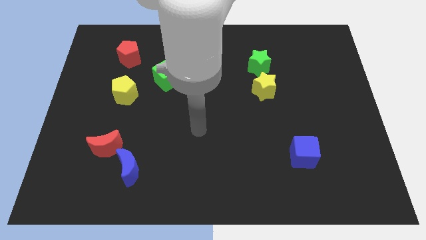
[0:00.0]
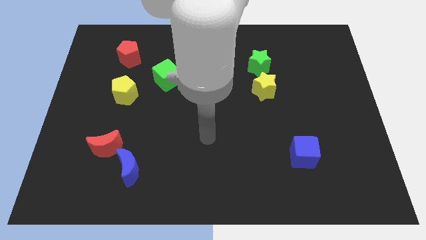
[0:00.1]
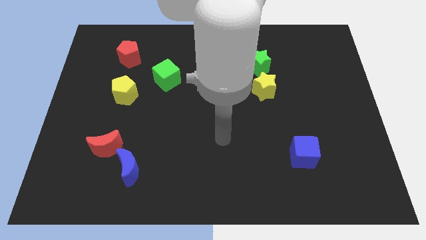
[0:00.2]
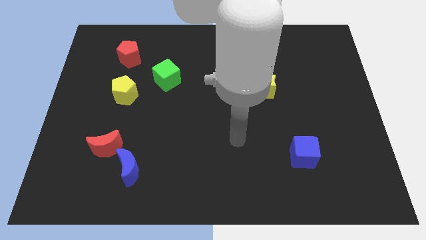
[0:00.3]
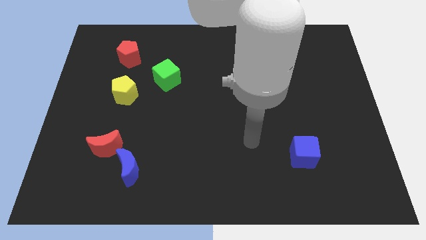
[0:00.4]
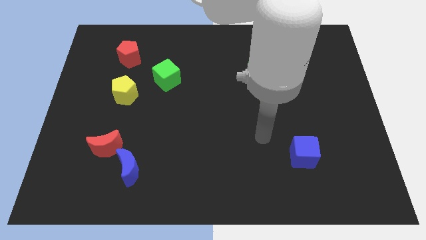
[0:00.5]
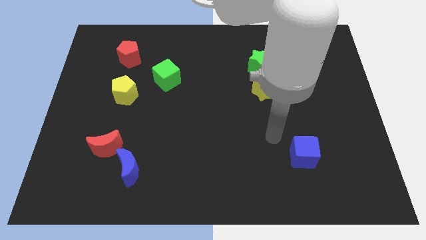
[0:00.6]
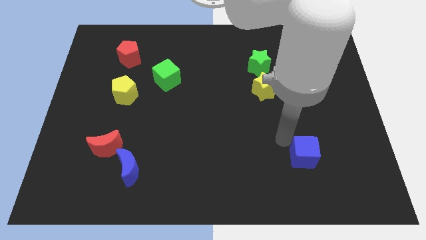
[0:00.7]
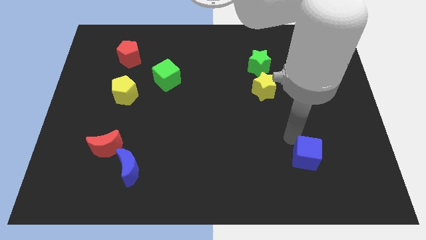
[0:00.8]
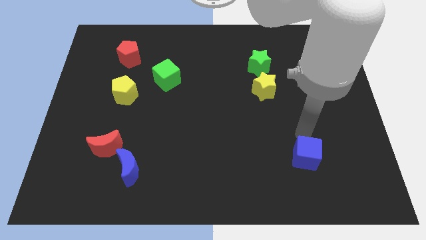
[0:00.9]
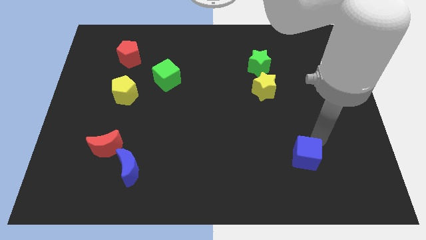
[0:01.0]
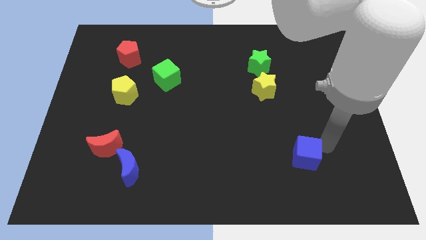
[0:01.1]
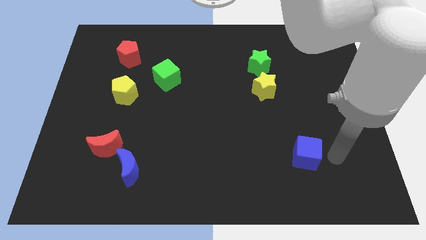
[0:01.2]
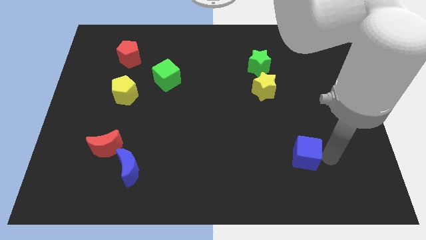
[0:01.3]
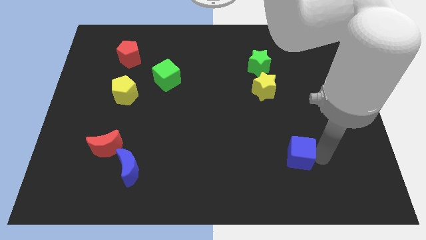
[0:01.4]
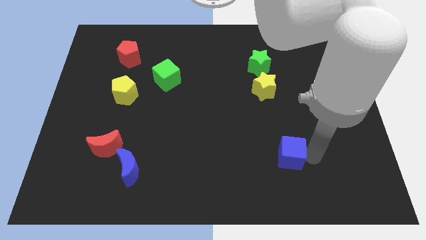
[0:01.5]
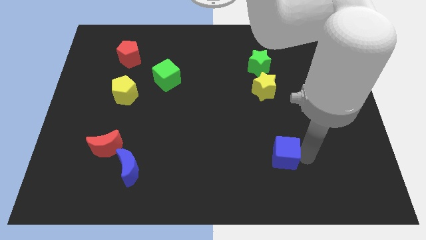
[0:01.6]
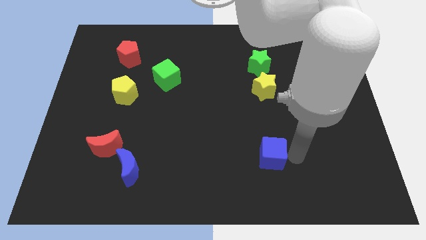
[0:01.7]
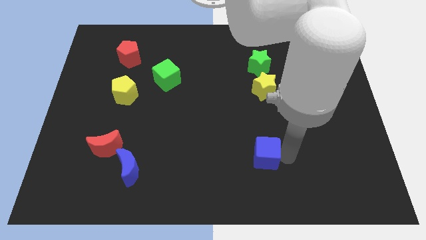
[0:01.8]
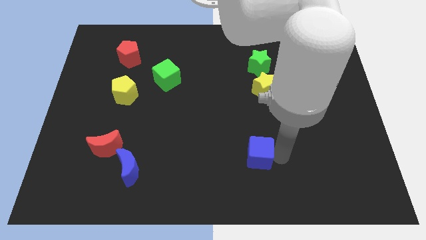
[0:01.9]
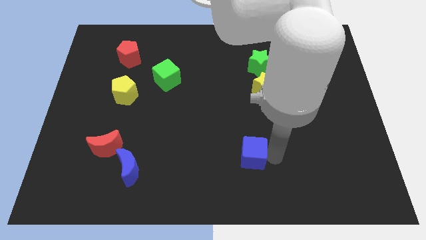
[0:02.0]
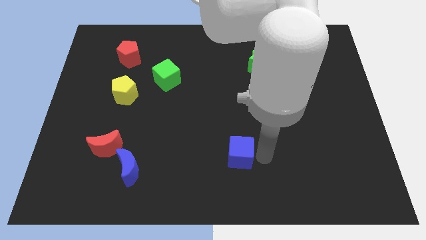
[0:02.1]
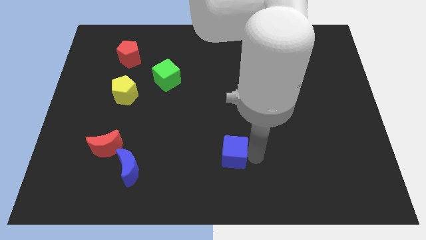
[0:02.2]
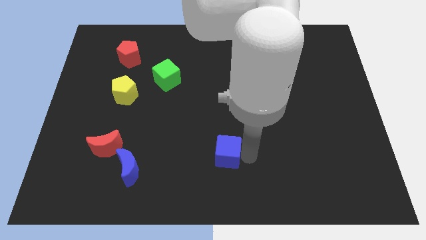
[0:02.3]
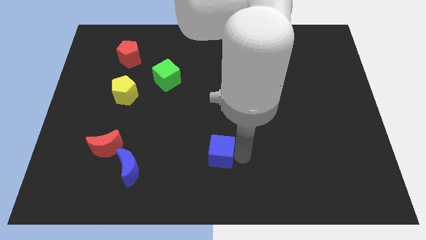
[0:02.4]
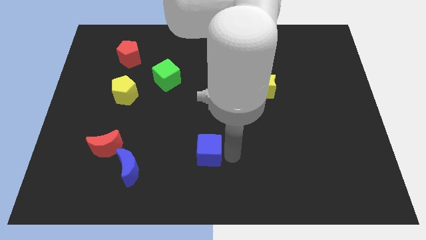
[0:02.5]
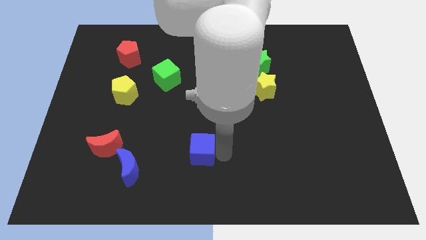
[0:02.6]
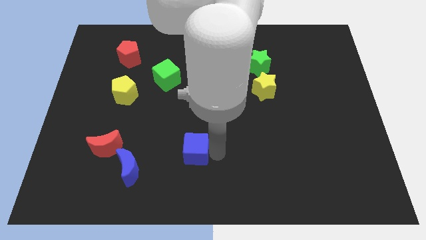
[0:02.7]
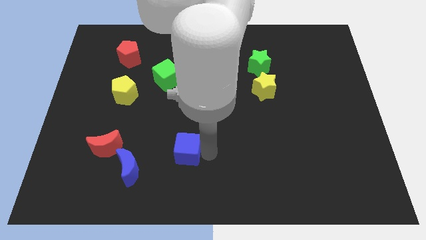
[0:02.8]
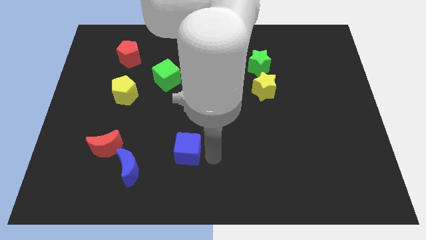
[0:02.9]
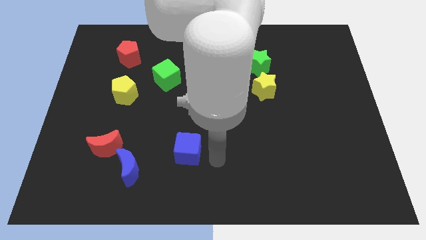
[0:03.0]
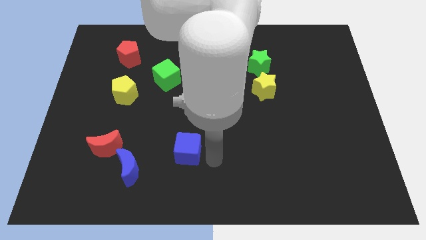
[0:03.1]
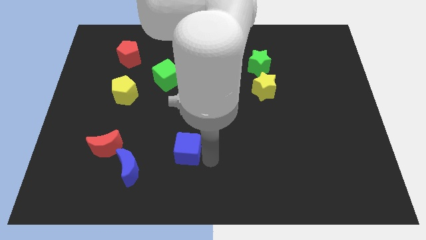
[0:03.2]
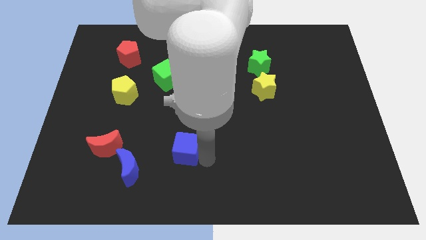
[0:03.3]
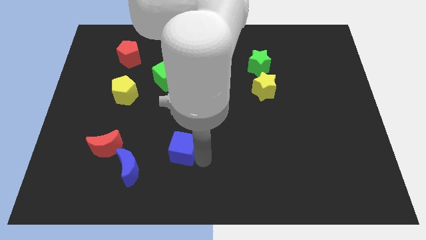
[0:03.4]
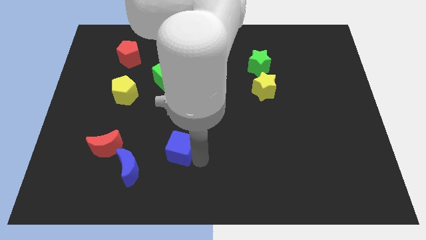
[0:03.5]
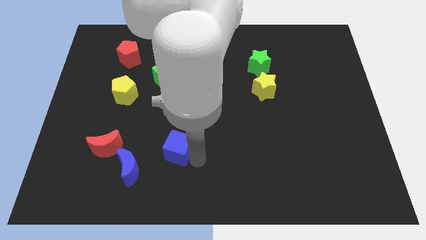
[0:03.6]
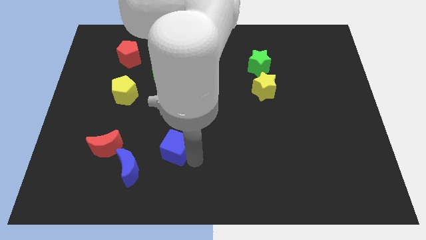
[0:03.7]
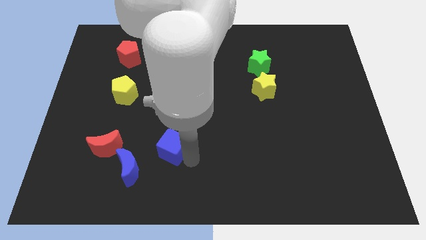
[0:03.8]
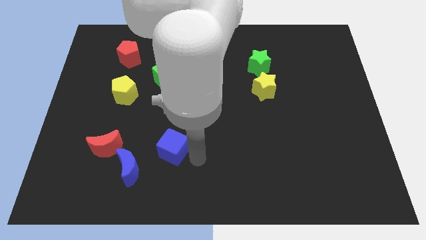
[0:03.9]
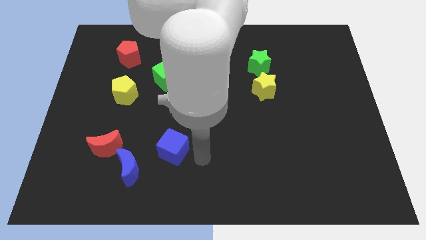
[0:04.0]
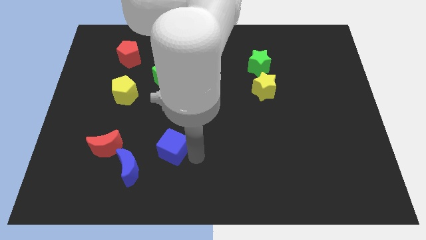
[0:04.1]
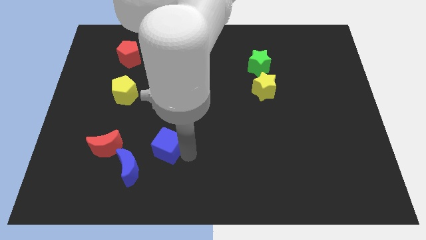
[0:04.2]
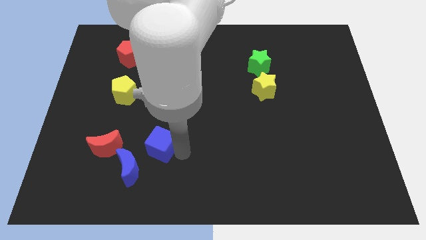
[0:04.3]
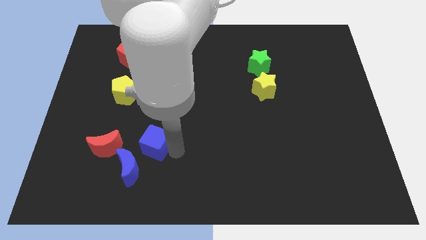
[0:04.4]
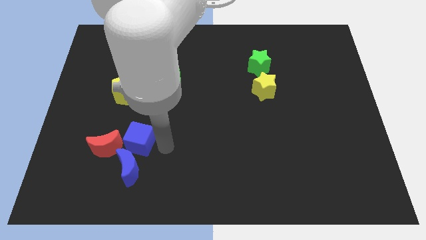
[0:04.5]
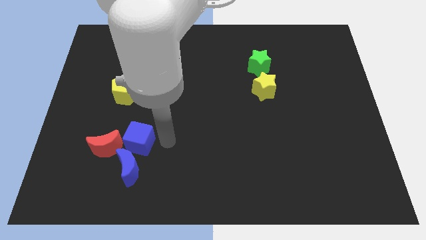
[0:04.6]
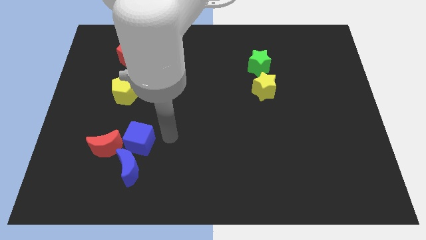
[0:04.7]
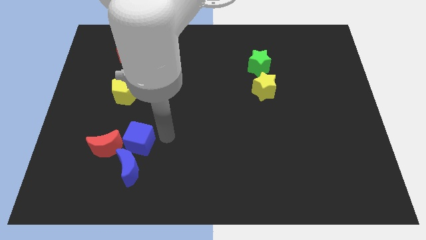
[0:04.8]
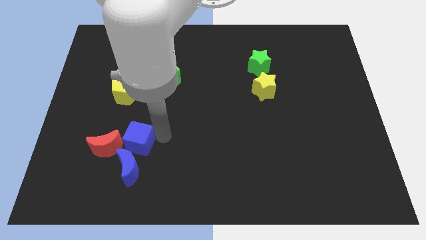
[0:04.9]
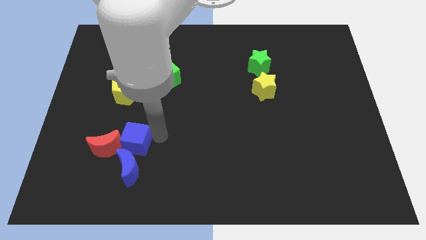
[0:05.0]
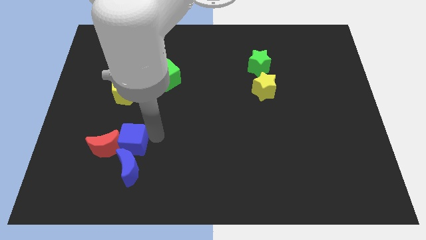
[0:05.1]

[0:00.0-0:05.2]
slide the blue cube close to the red moon

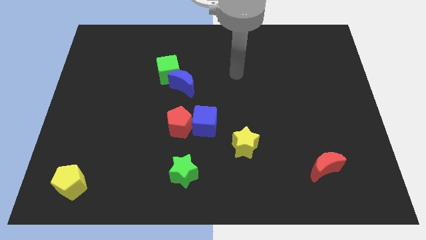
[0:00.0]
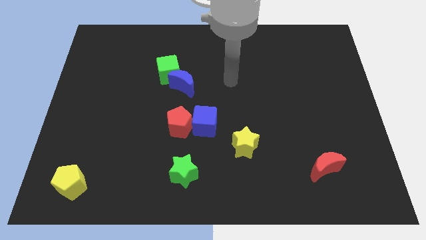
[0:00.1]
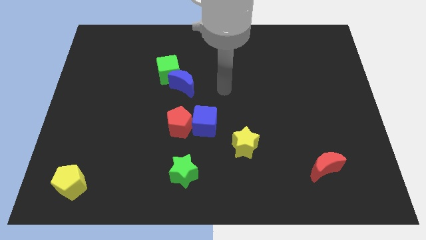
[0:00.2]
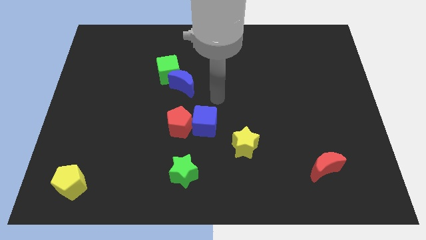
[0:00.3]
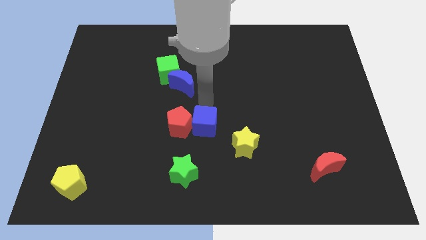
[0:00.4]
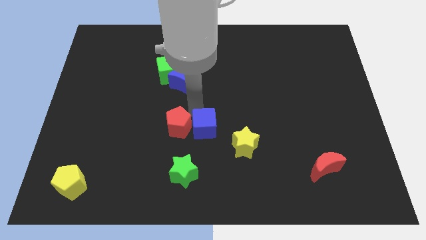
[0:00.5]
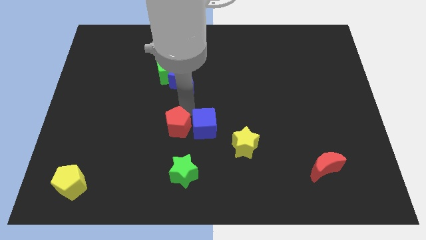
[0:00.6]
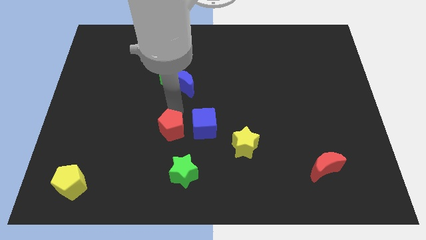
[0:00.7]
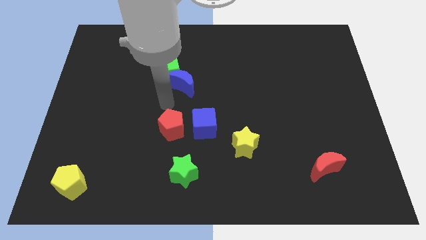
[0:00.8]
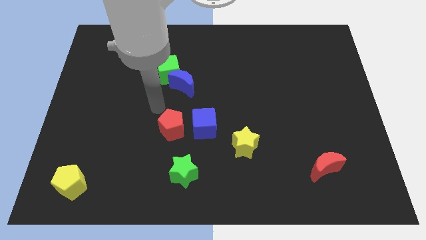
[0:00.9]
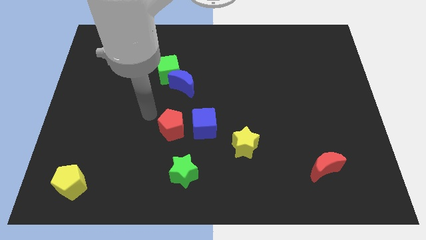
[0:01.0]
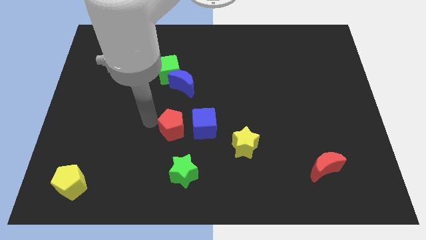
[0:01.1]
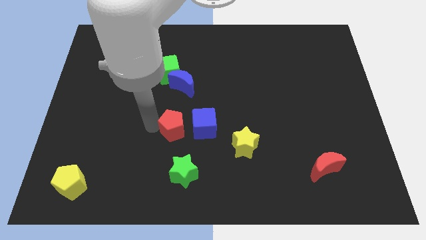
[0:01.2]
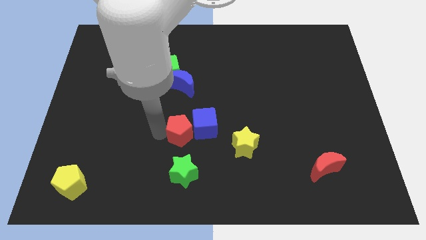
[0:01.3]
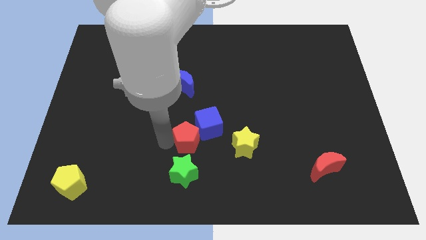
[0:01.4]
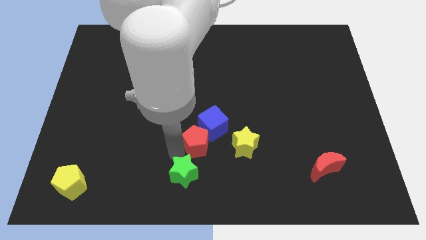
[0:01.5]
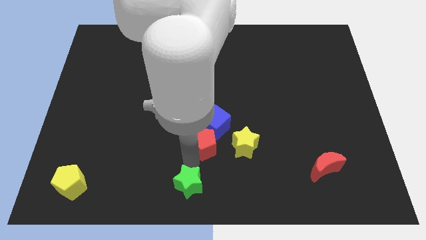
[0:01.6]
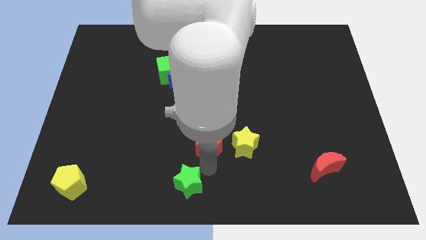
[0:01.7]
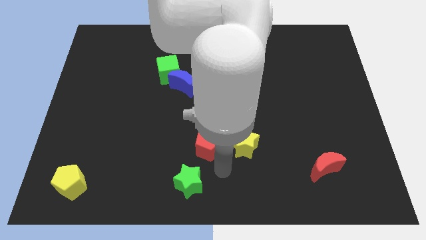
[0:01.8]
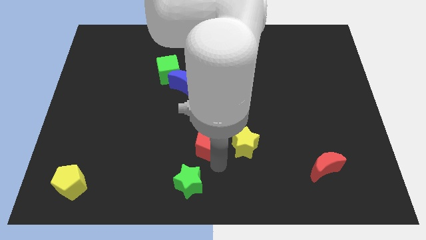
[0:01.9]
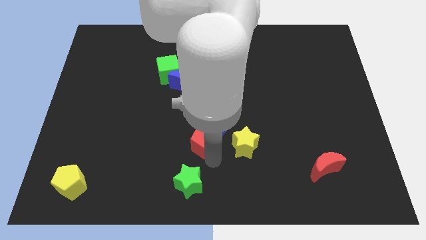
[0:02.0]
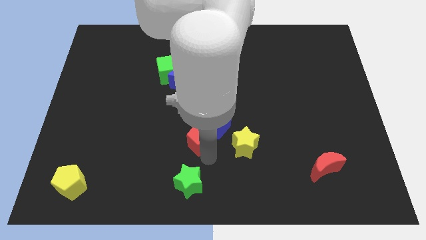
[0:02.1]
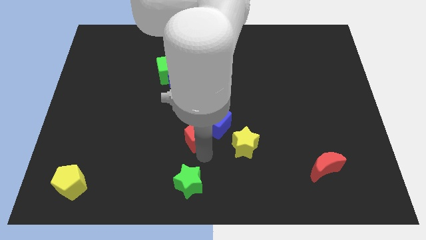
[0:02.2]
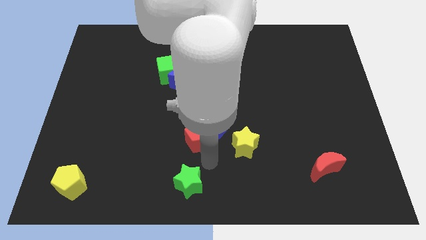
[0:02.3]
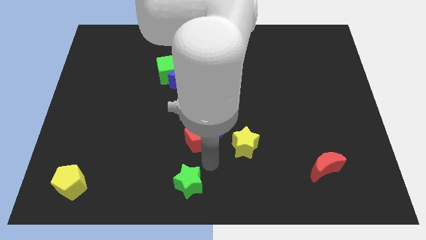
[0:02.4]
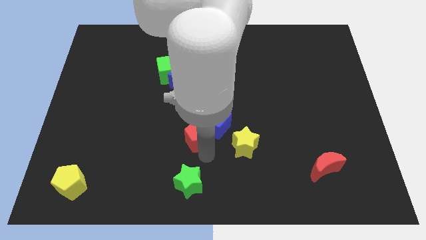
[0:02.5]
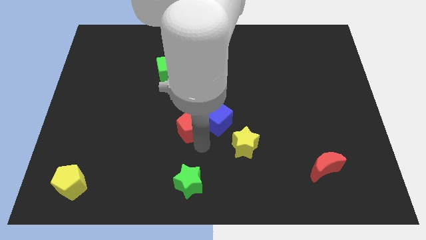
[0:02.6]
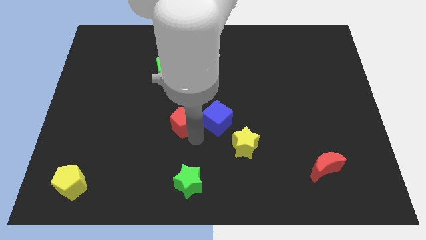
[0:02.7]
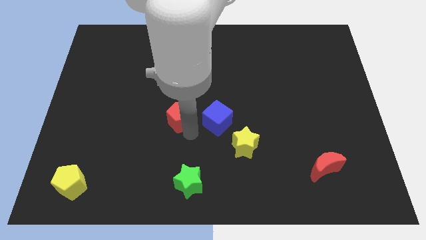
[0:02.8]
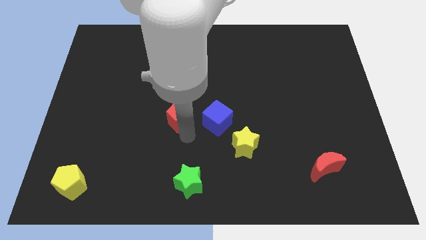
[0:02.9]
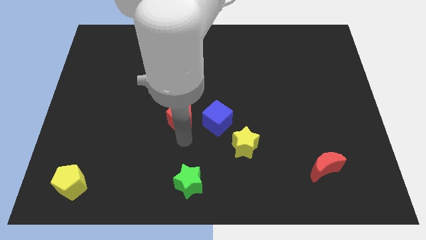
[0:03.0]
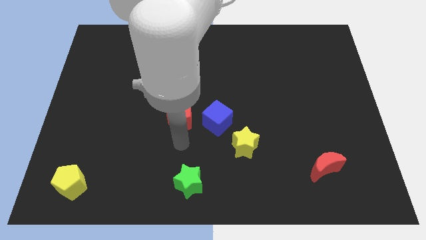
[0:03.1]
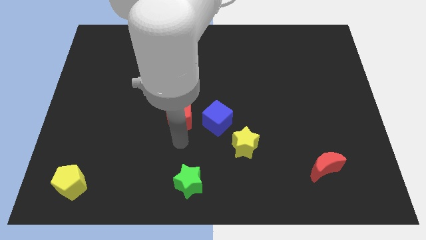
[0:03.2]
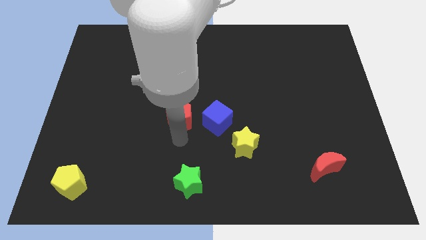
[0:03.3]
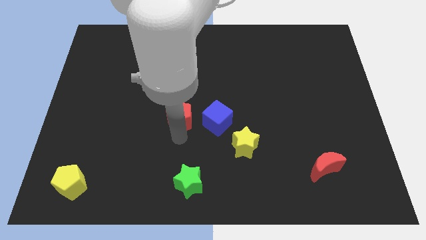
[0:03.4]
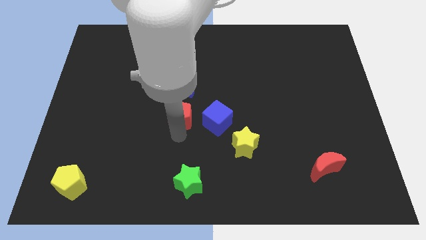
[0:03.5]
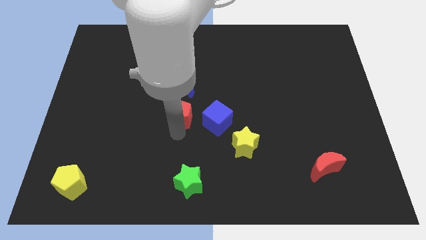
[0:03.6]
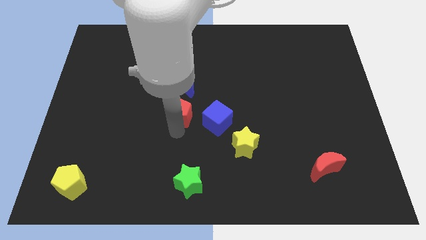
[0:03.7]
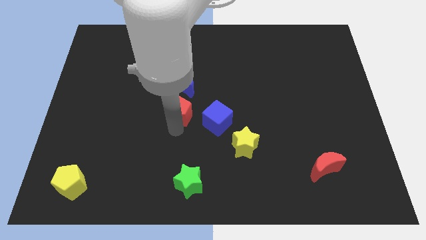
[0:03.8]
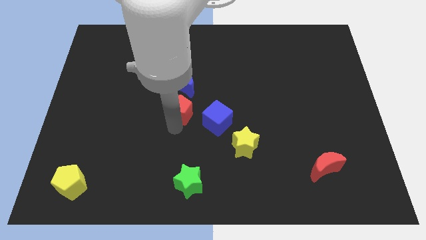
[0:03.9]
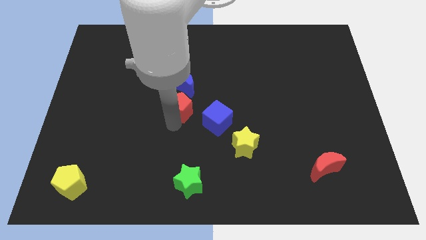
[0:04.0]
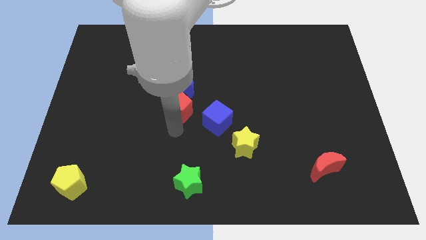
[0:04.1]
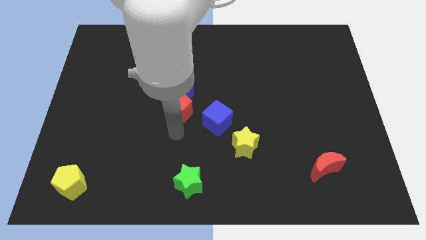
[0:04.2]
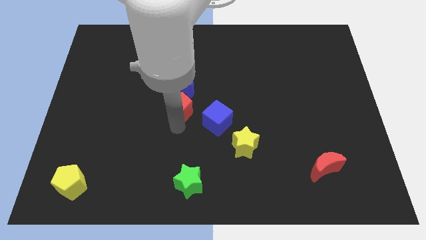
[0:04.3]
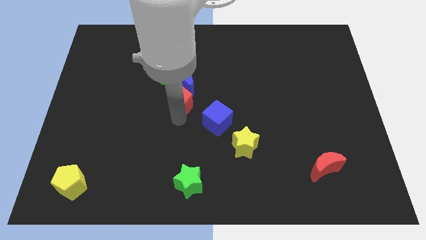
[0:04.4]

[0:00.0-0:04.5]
put the red pentagon close to the blue moon
